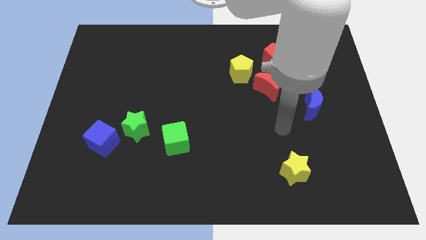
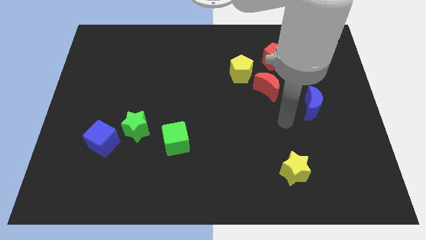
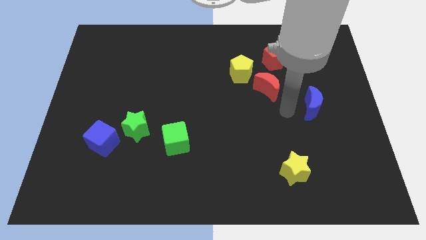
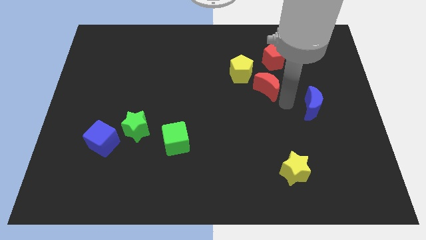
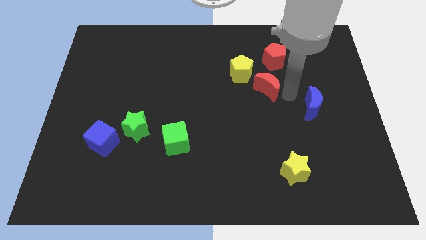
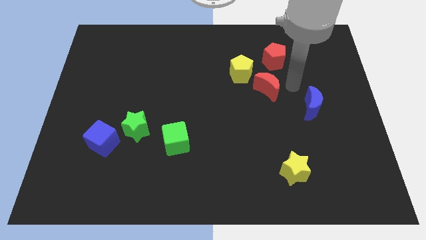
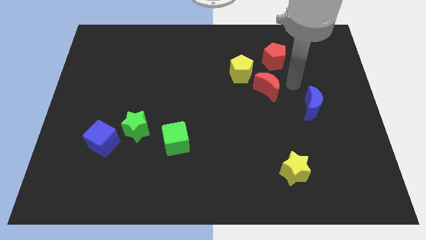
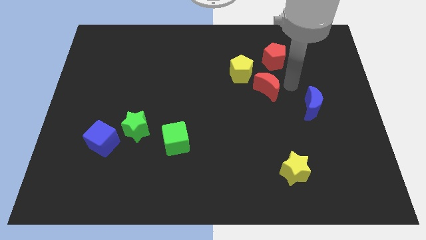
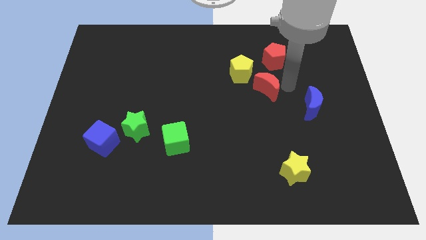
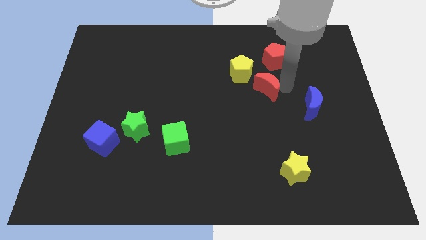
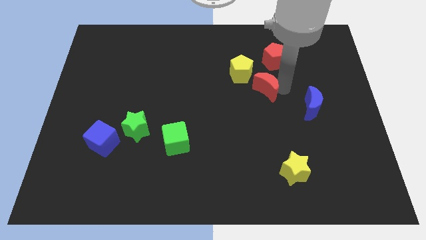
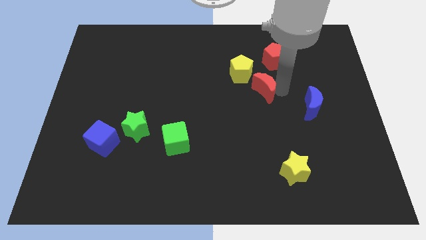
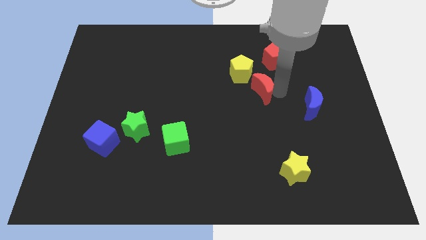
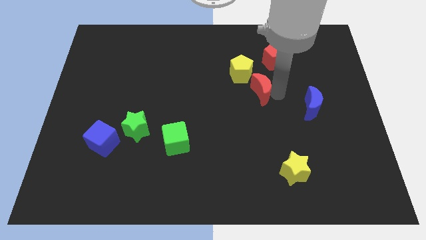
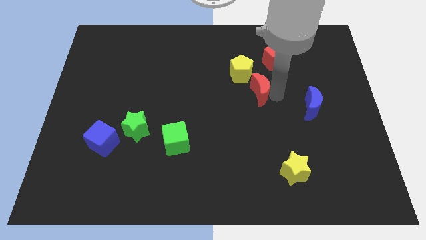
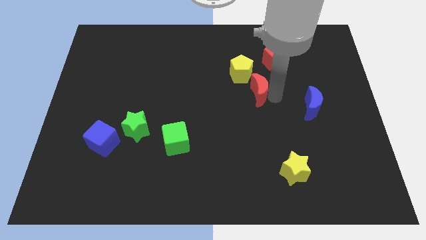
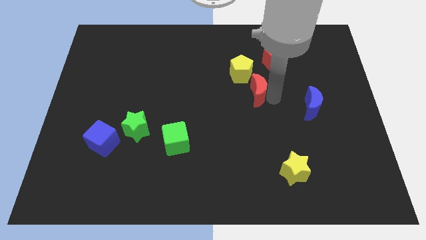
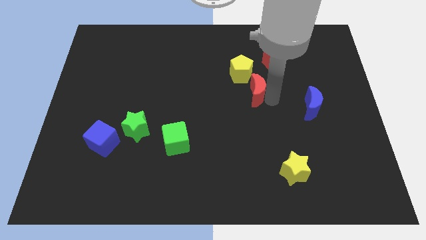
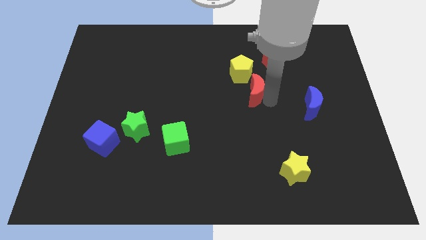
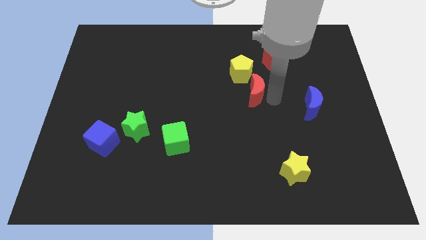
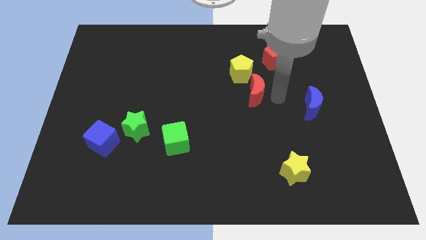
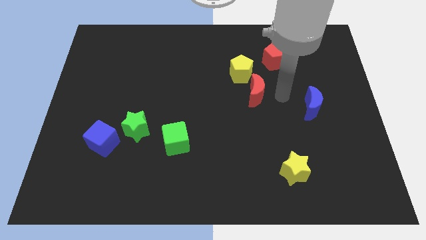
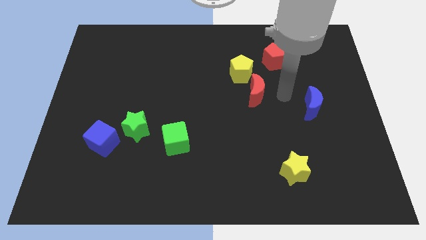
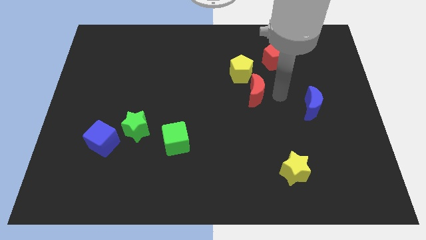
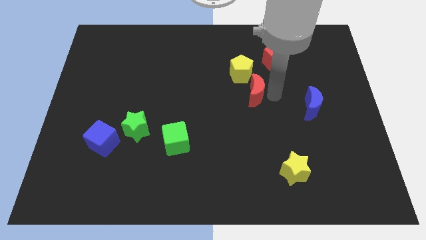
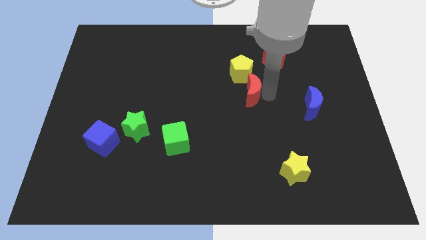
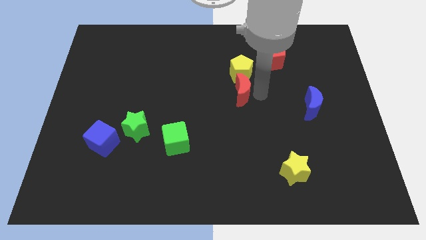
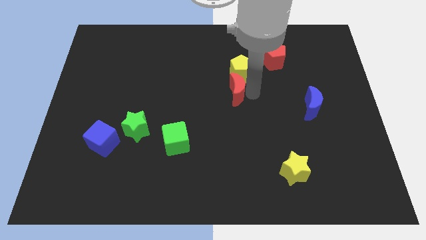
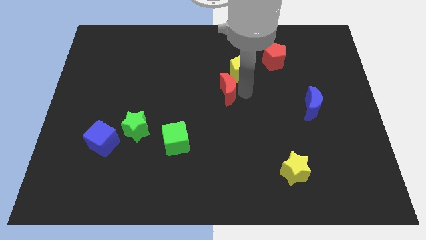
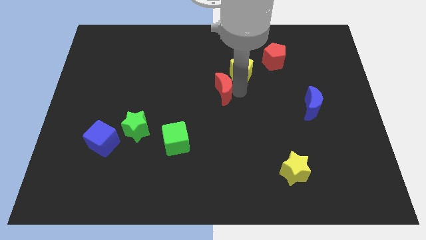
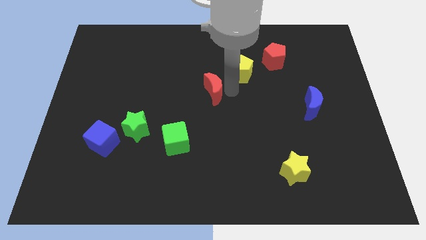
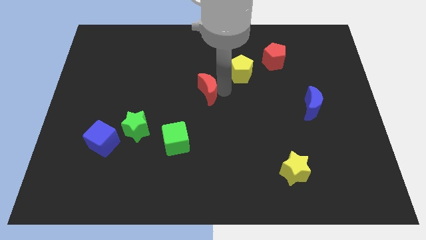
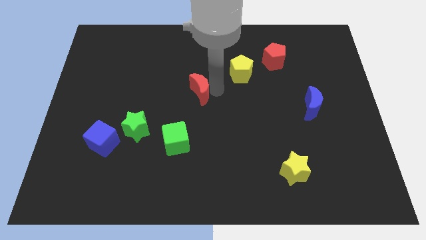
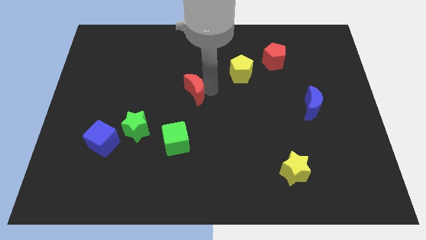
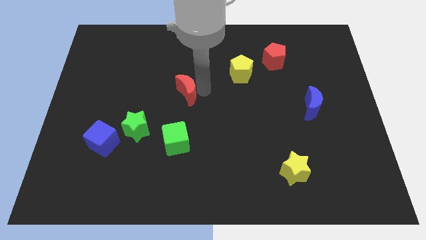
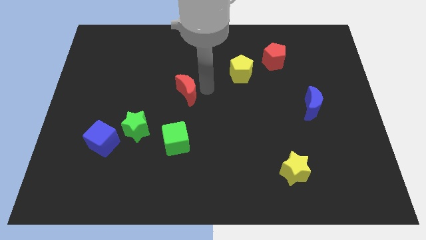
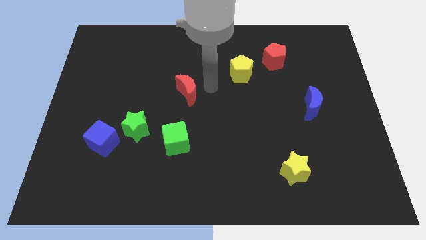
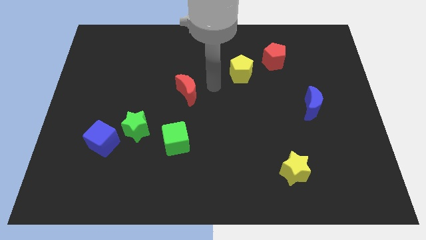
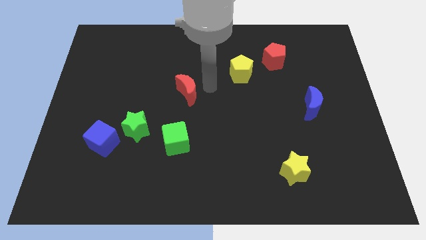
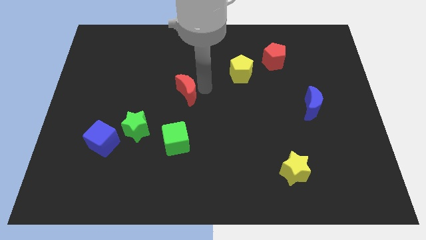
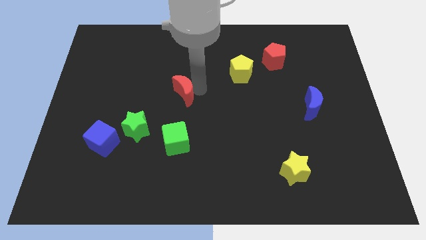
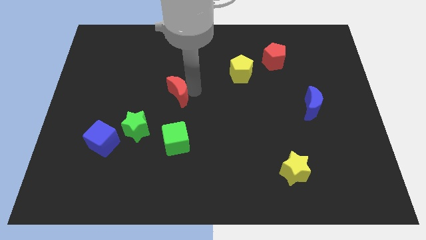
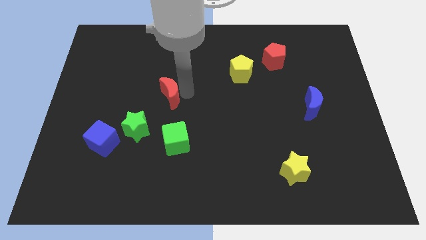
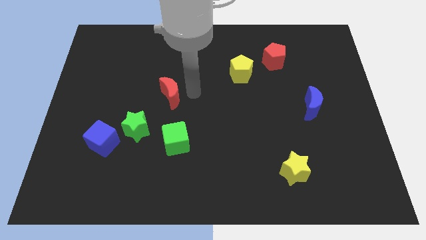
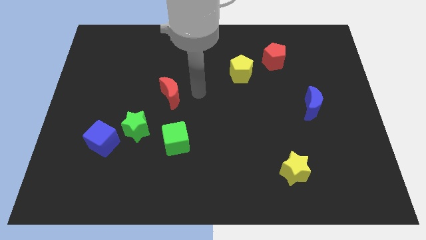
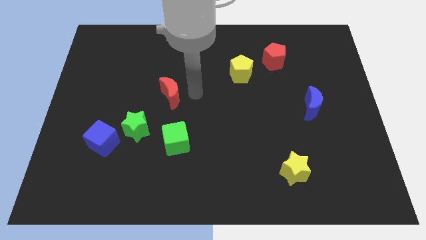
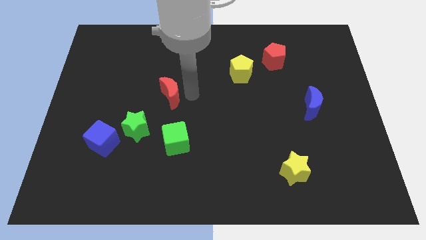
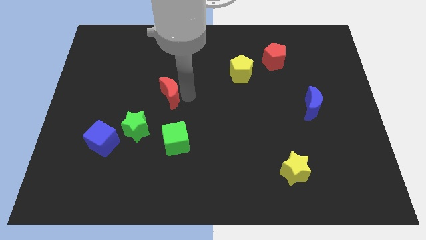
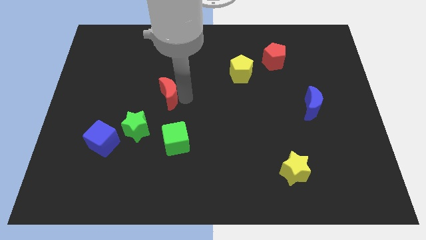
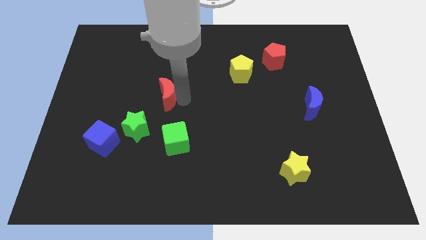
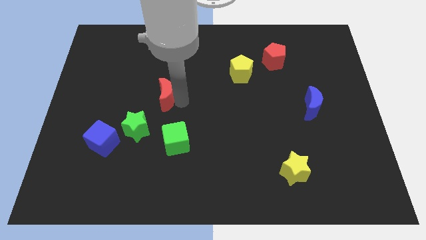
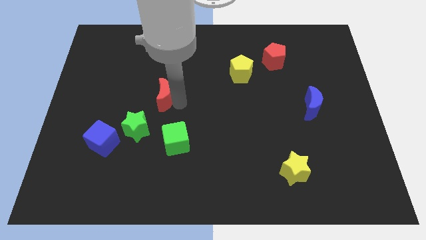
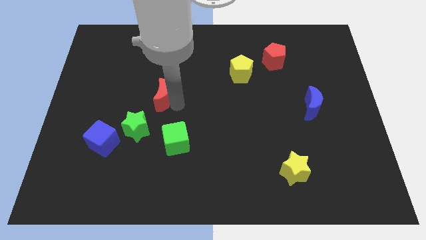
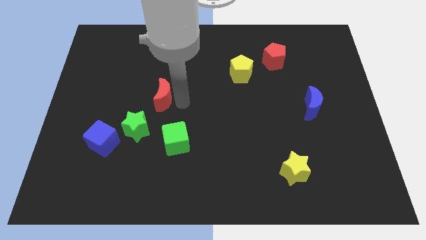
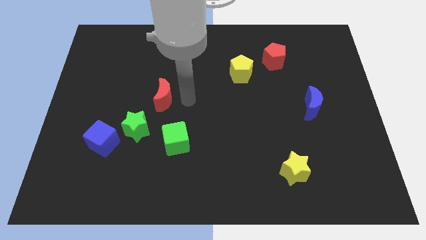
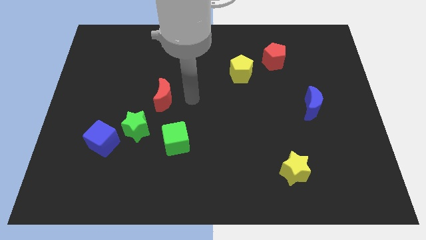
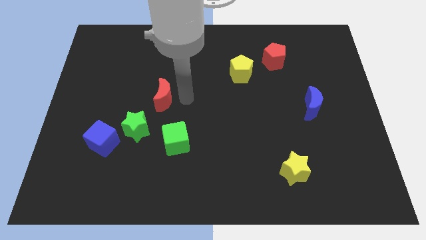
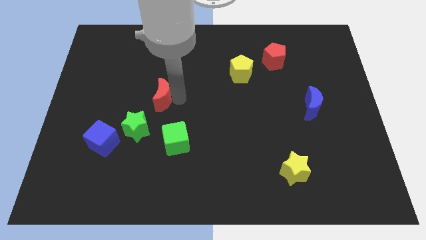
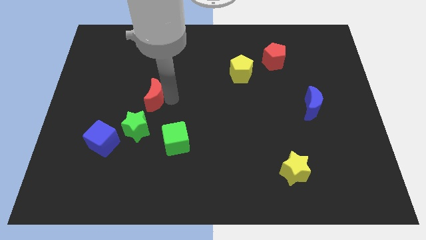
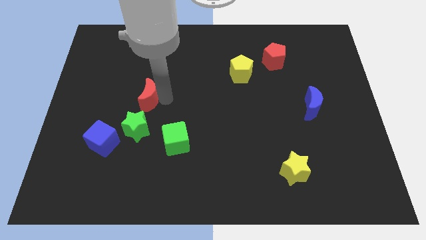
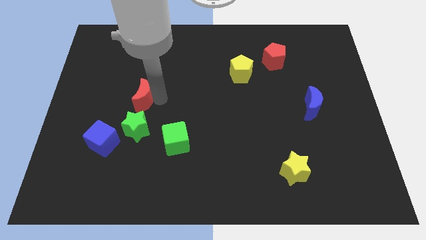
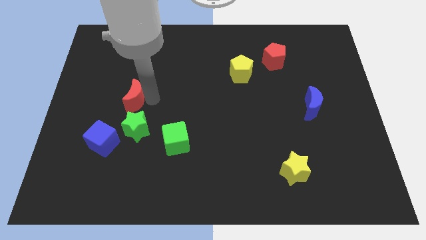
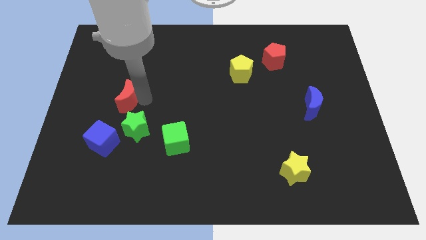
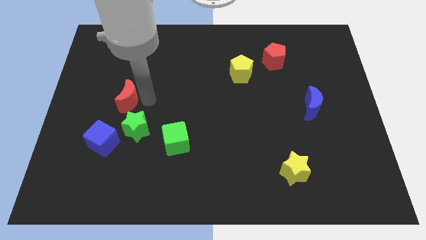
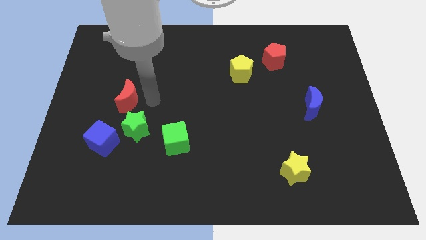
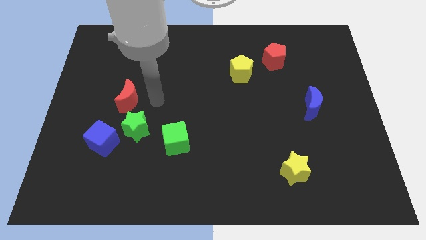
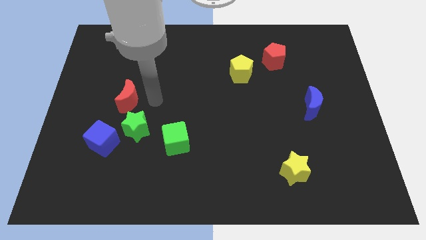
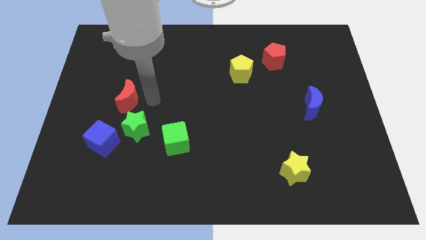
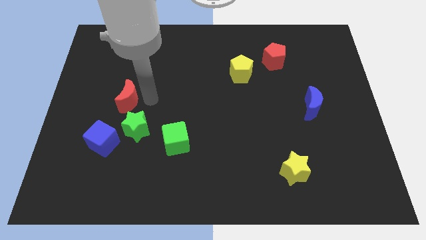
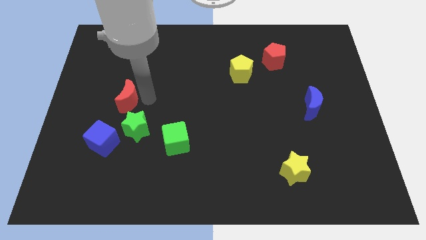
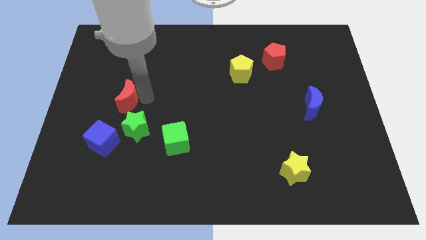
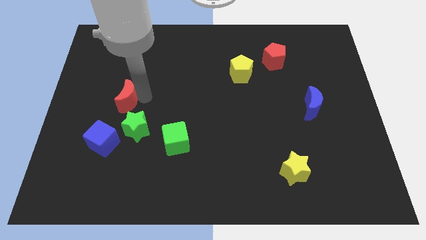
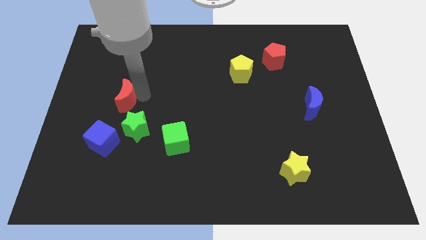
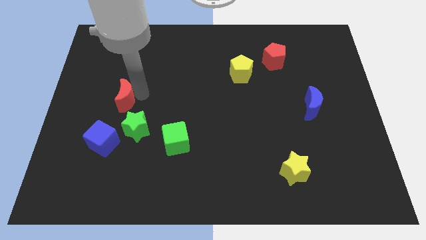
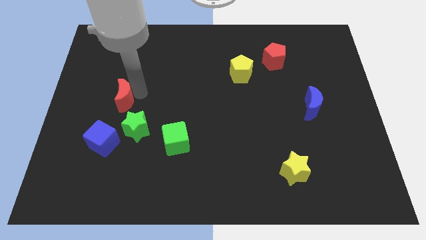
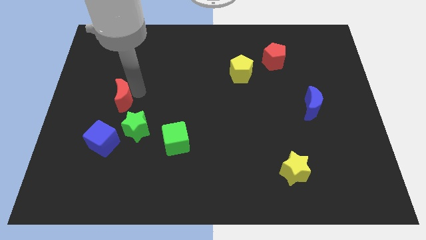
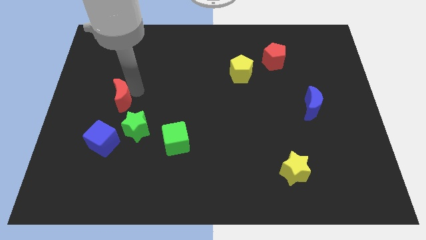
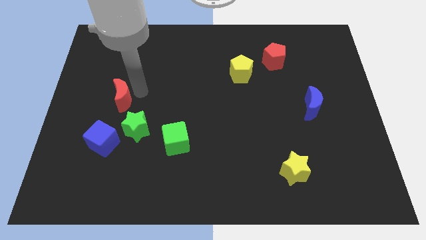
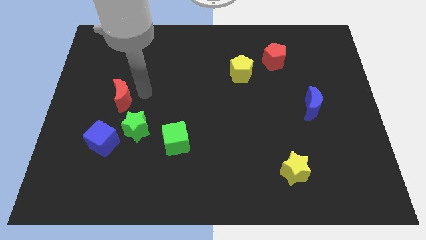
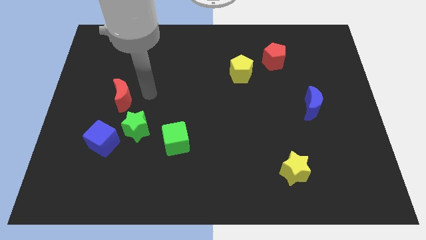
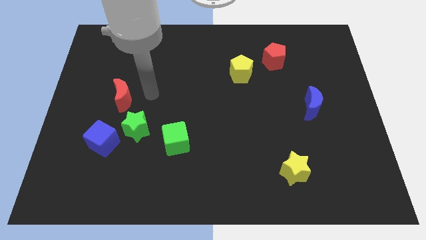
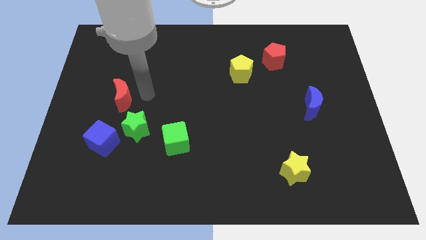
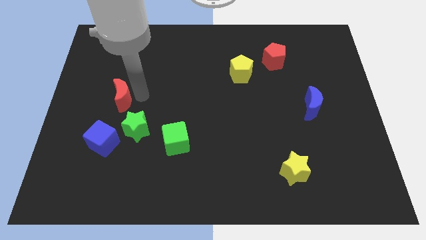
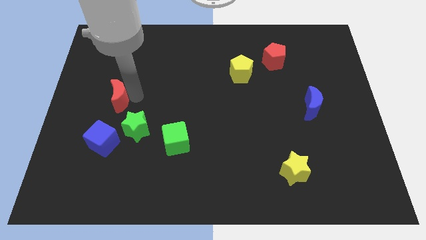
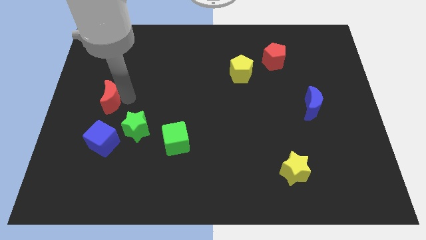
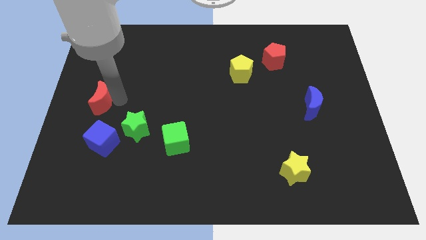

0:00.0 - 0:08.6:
slide the red moon to the center left
